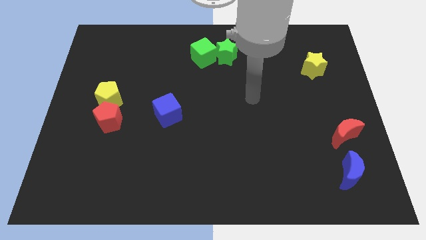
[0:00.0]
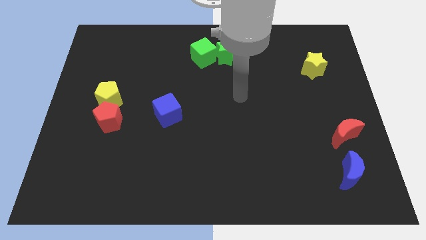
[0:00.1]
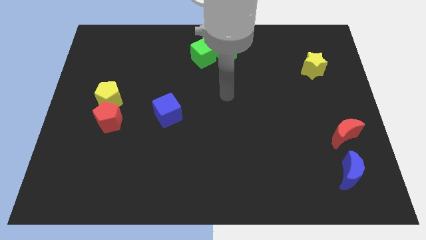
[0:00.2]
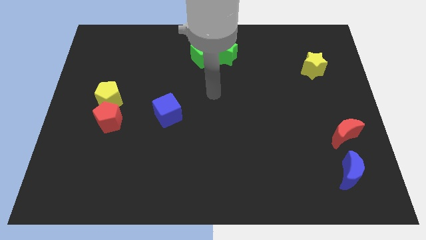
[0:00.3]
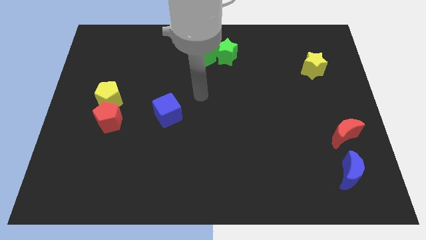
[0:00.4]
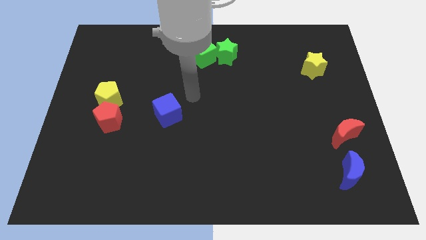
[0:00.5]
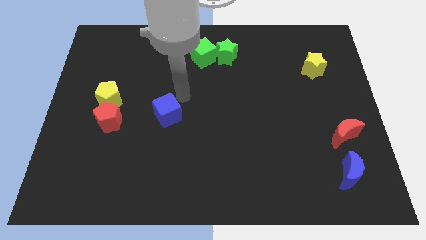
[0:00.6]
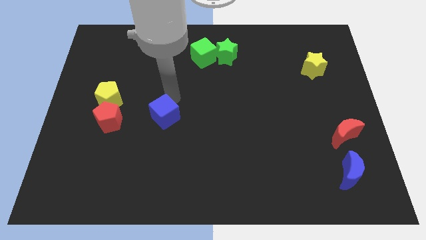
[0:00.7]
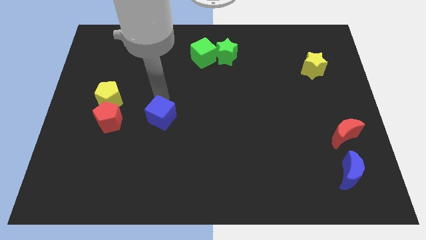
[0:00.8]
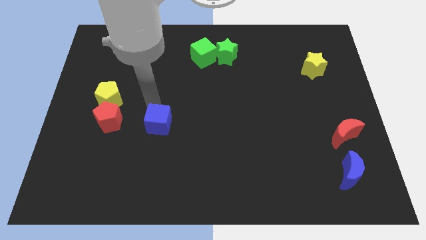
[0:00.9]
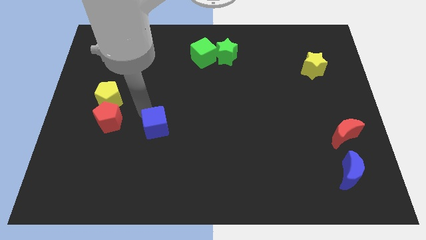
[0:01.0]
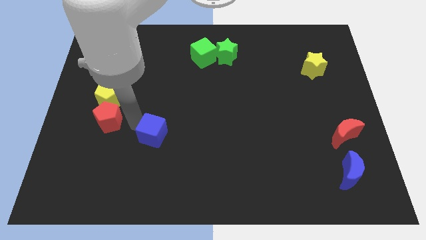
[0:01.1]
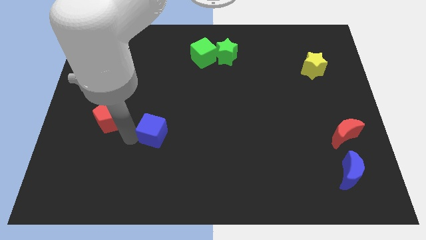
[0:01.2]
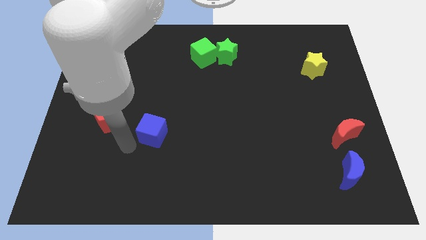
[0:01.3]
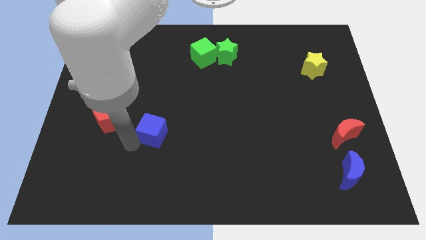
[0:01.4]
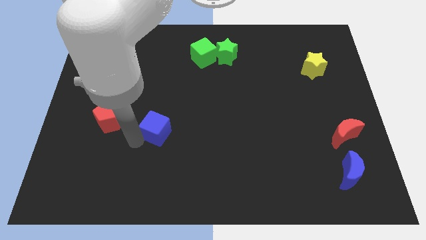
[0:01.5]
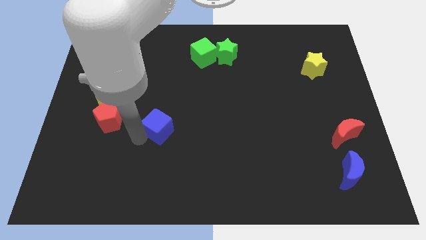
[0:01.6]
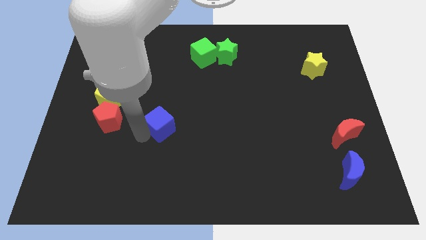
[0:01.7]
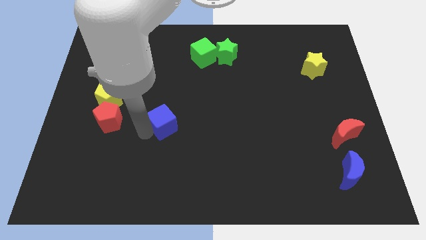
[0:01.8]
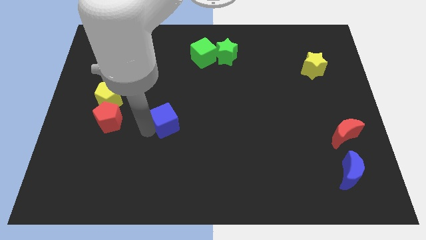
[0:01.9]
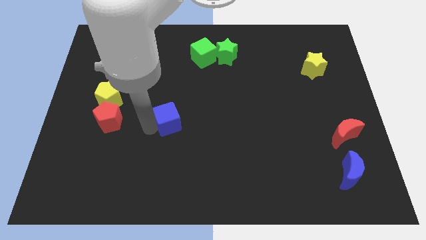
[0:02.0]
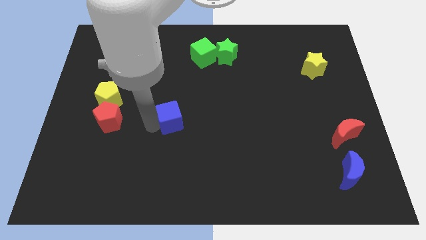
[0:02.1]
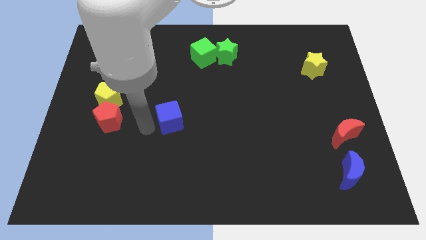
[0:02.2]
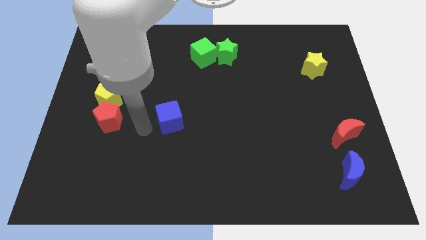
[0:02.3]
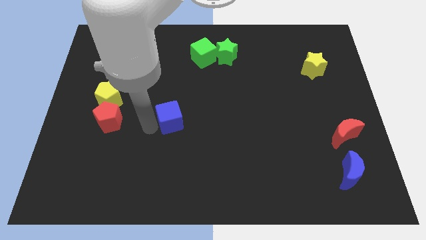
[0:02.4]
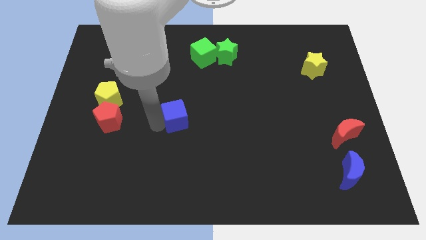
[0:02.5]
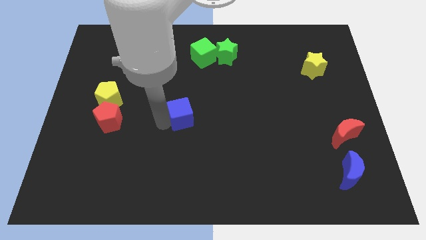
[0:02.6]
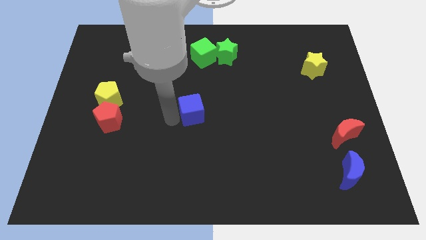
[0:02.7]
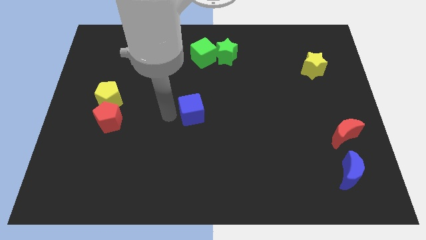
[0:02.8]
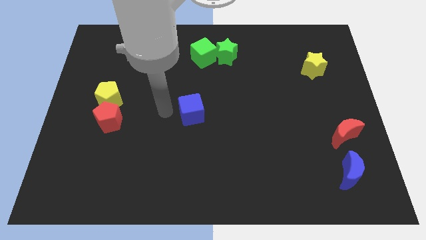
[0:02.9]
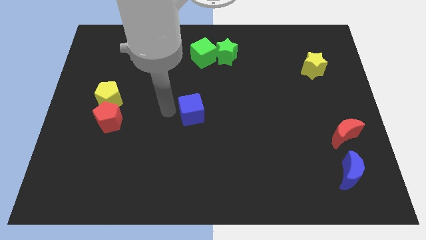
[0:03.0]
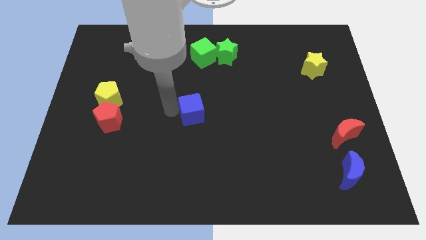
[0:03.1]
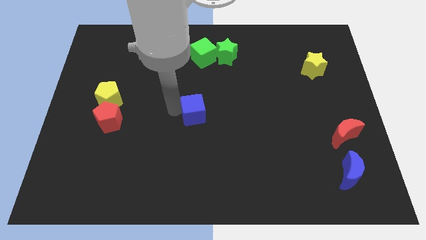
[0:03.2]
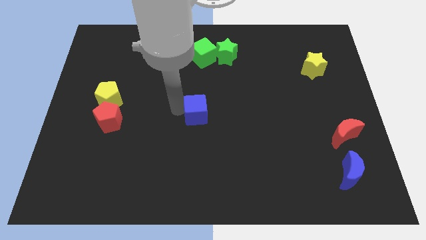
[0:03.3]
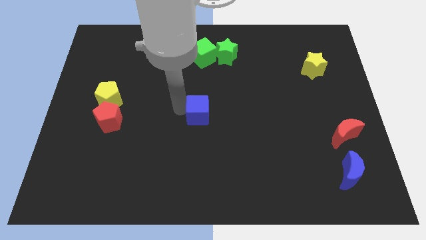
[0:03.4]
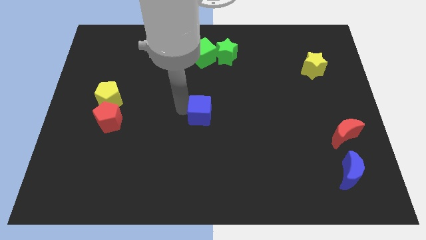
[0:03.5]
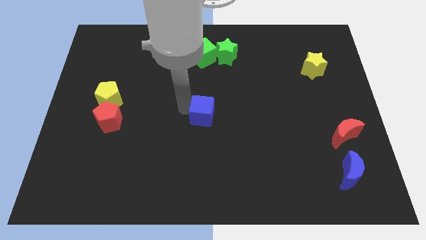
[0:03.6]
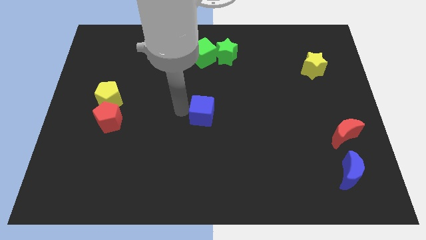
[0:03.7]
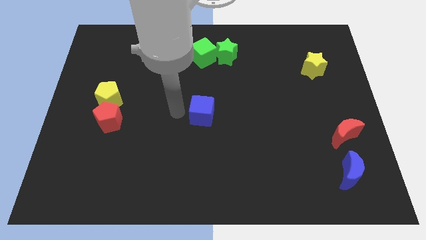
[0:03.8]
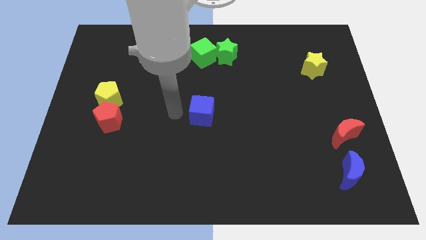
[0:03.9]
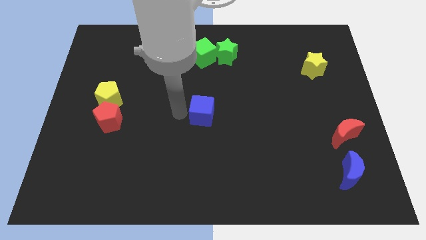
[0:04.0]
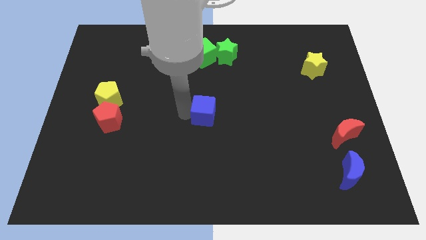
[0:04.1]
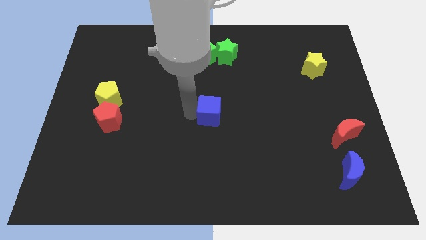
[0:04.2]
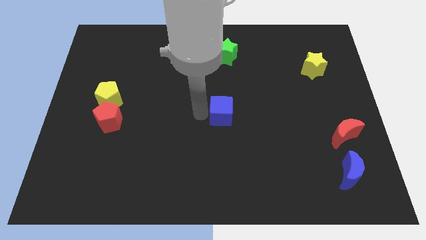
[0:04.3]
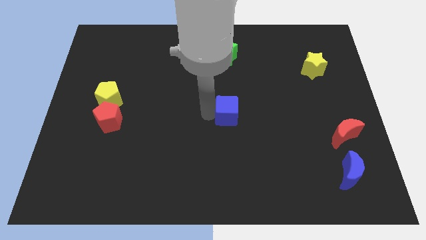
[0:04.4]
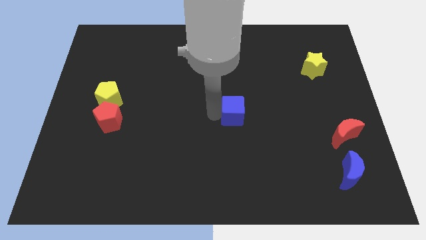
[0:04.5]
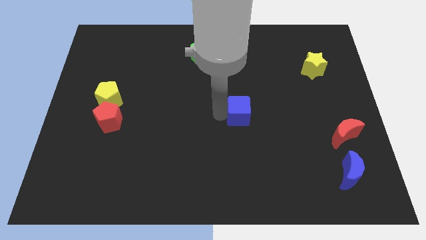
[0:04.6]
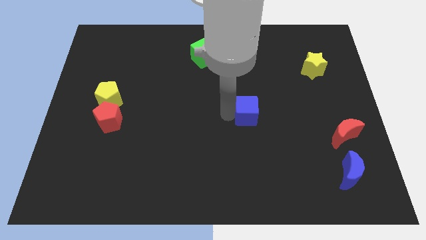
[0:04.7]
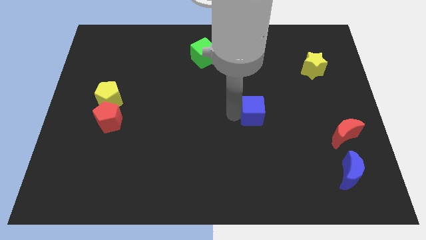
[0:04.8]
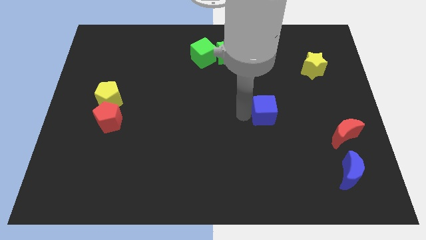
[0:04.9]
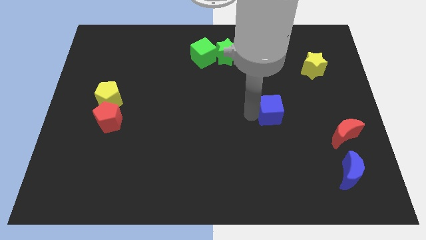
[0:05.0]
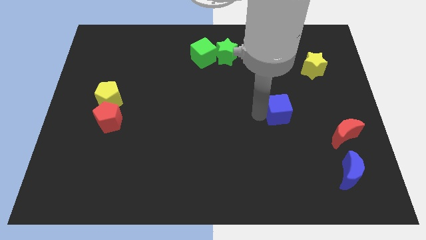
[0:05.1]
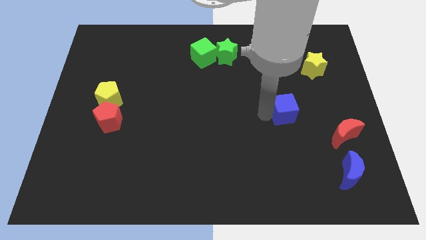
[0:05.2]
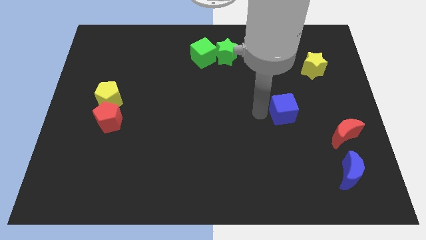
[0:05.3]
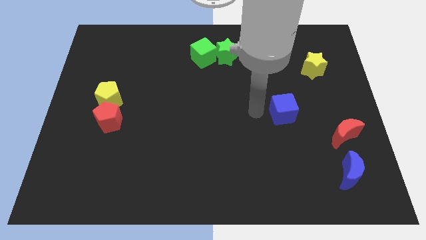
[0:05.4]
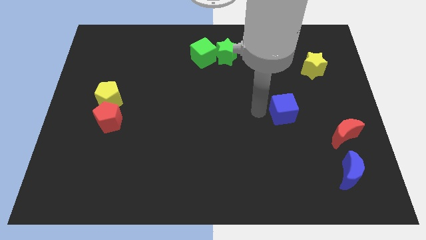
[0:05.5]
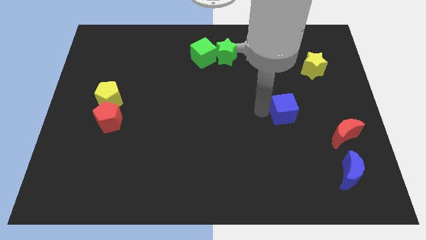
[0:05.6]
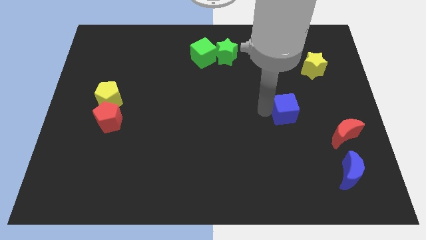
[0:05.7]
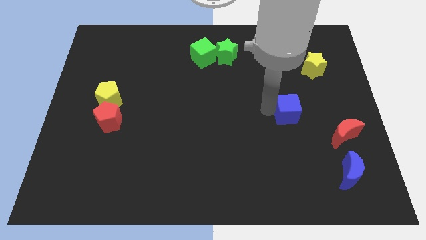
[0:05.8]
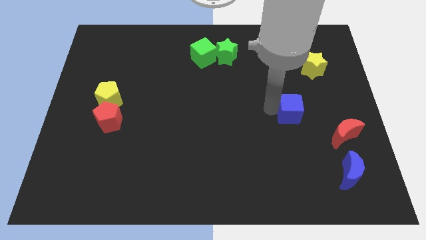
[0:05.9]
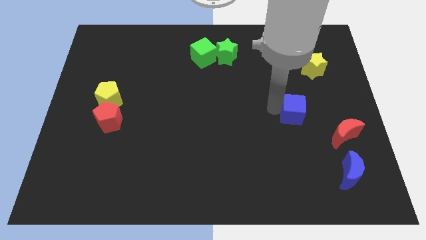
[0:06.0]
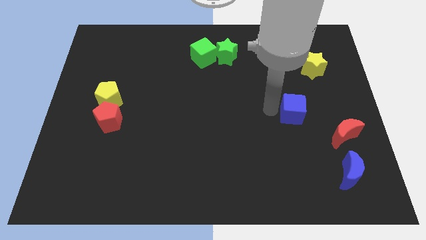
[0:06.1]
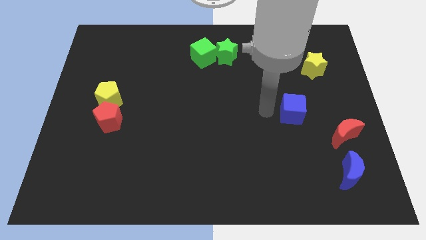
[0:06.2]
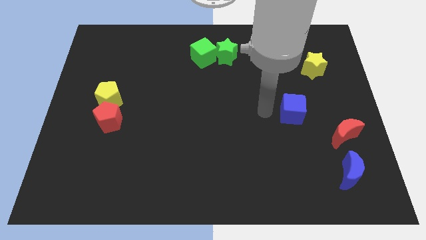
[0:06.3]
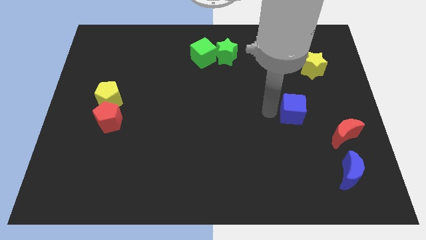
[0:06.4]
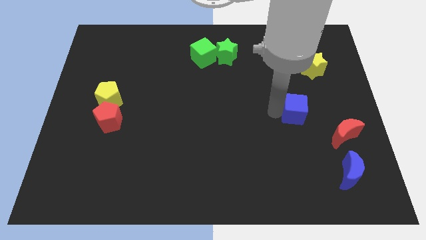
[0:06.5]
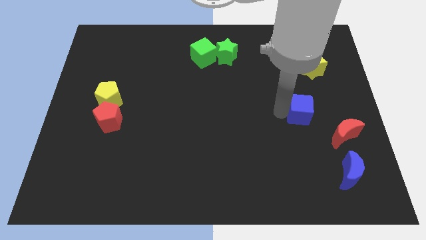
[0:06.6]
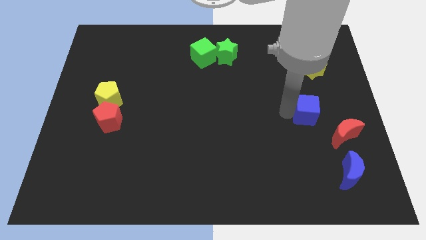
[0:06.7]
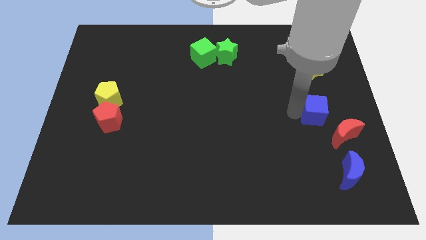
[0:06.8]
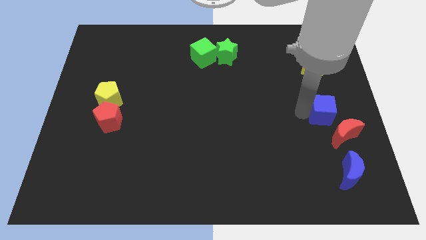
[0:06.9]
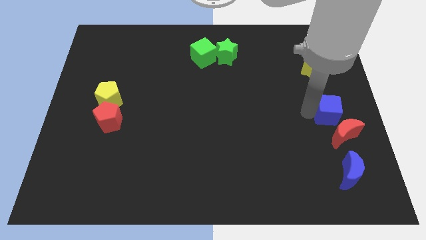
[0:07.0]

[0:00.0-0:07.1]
put the blue cube above the blue moon
